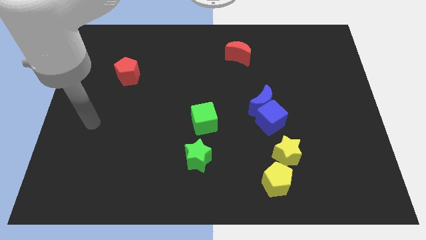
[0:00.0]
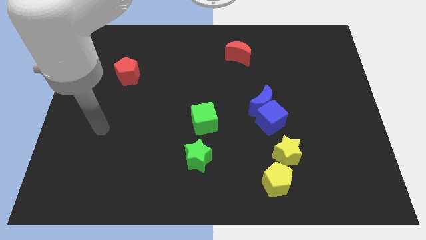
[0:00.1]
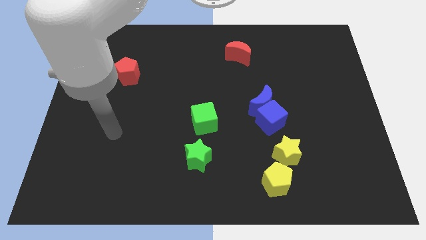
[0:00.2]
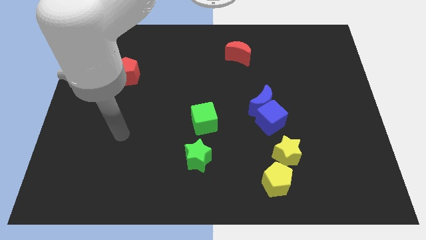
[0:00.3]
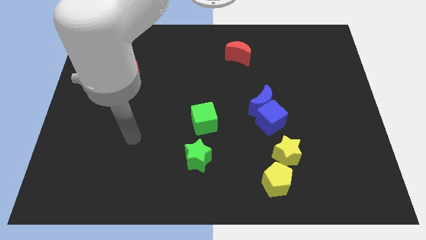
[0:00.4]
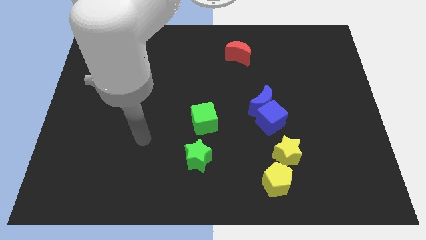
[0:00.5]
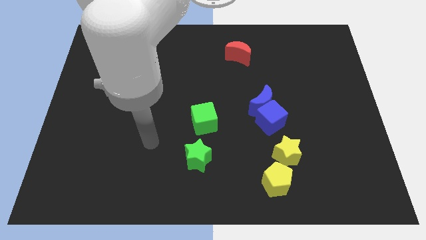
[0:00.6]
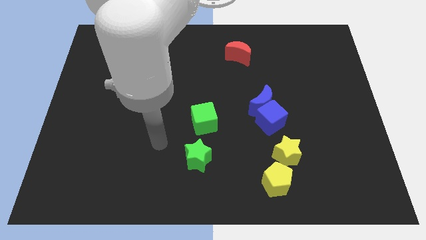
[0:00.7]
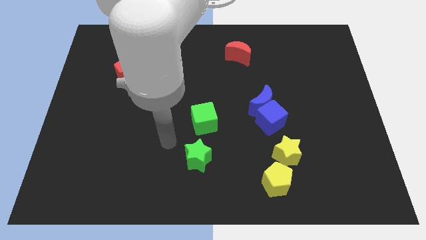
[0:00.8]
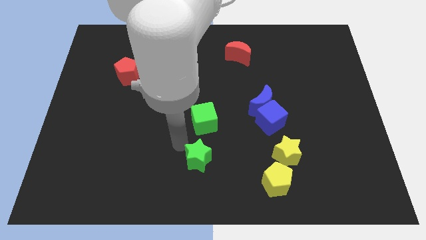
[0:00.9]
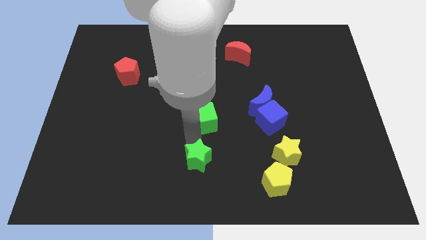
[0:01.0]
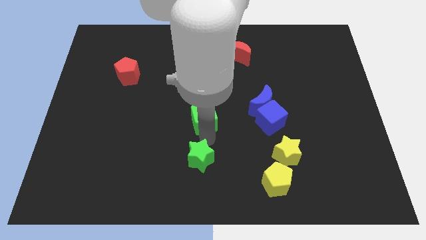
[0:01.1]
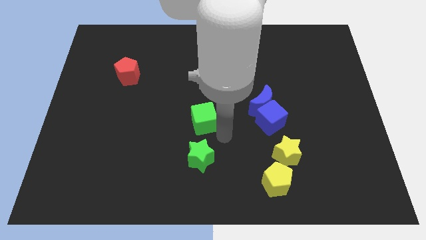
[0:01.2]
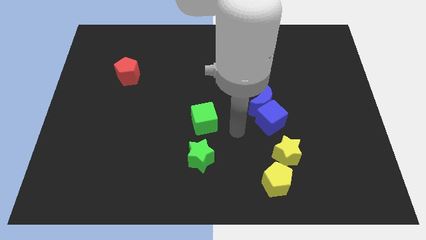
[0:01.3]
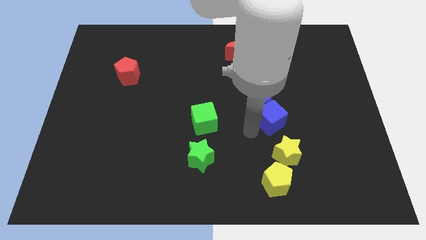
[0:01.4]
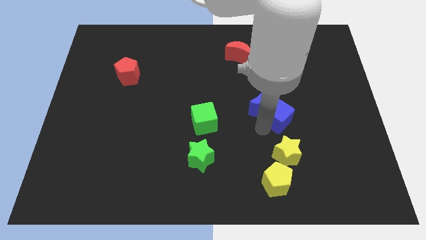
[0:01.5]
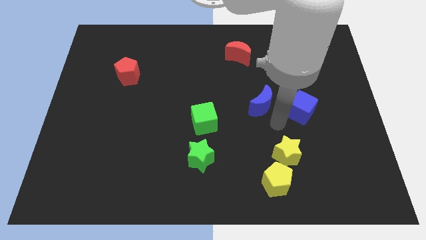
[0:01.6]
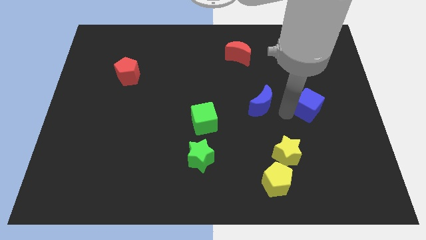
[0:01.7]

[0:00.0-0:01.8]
separate the blue moon from the blue cube

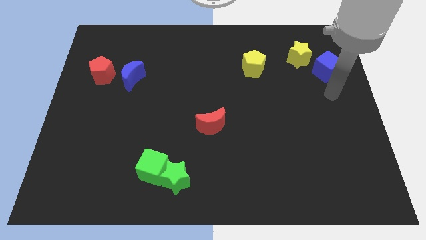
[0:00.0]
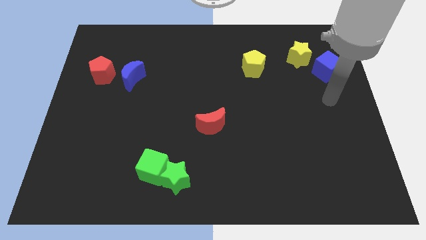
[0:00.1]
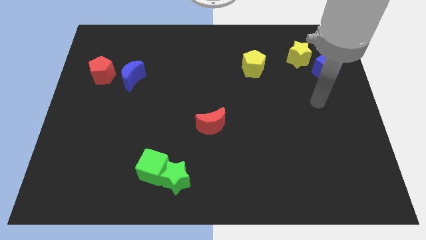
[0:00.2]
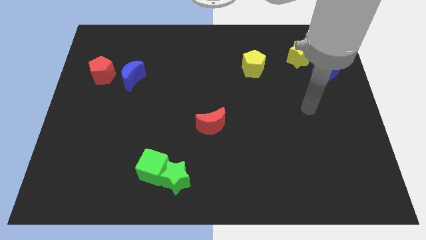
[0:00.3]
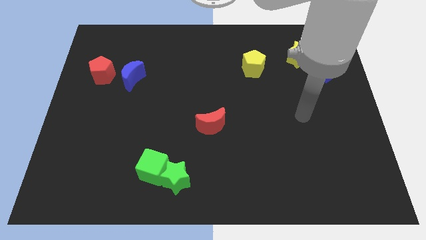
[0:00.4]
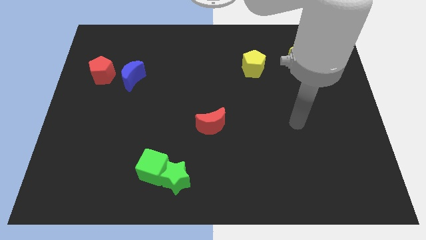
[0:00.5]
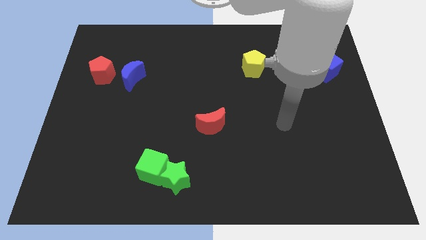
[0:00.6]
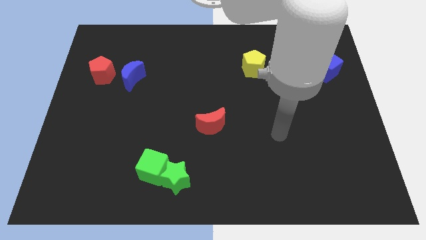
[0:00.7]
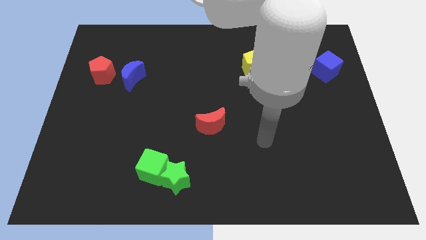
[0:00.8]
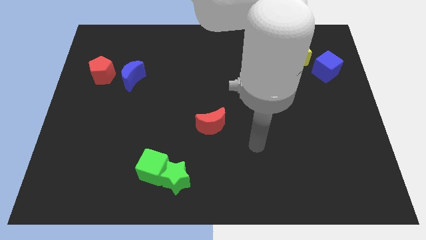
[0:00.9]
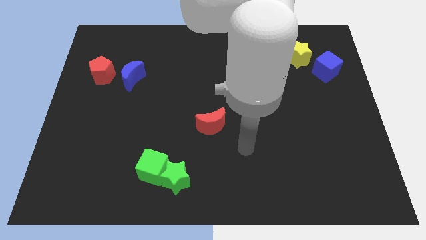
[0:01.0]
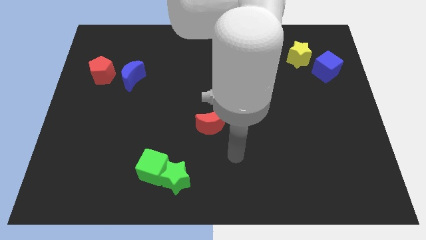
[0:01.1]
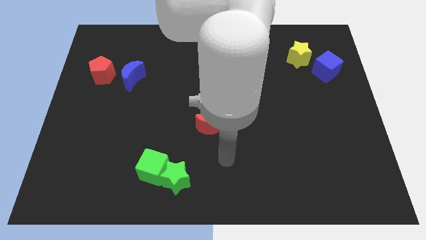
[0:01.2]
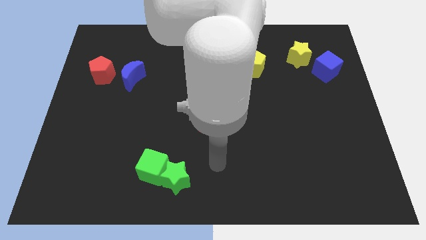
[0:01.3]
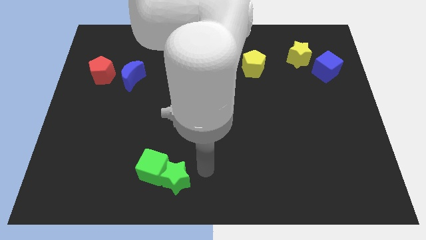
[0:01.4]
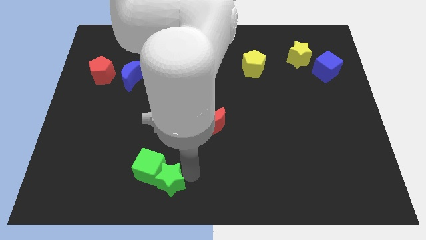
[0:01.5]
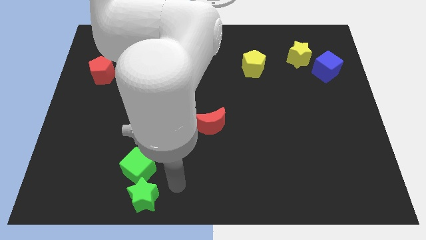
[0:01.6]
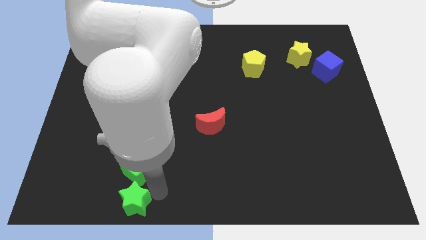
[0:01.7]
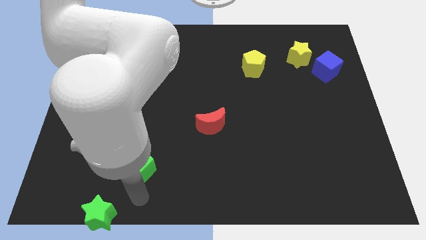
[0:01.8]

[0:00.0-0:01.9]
separate the green cube from the green star

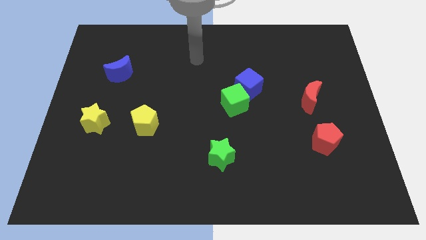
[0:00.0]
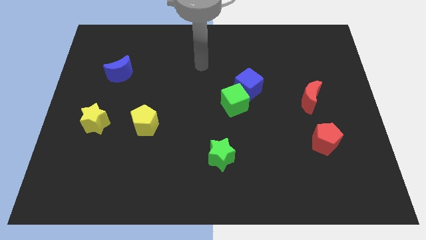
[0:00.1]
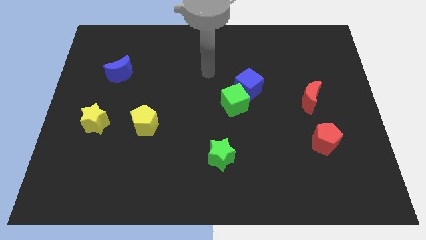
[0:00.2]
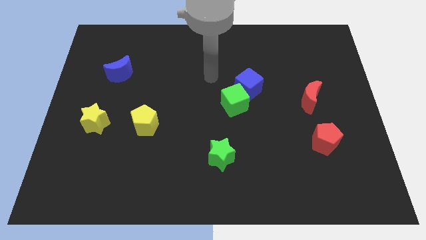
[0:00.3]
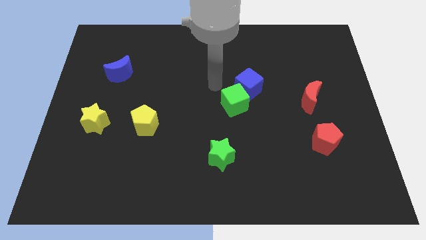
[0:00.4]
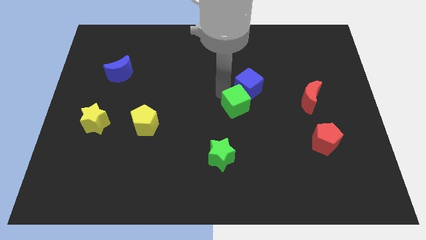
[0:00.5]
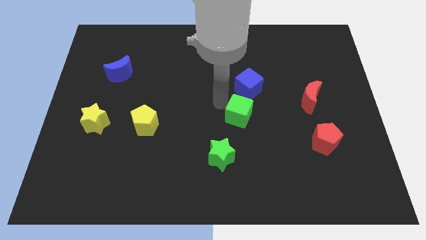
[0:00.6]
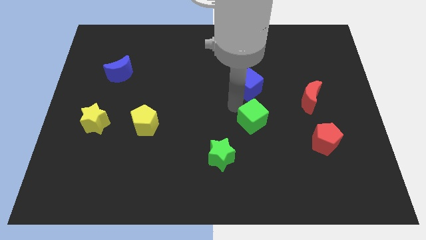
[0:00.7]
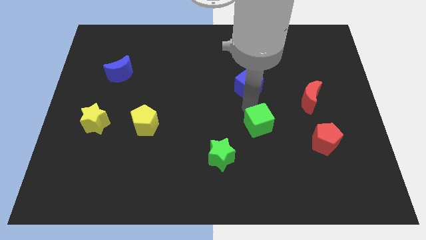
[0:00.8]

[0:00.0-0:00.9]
separate the blue cube from the green cube

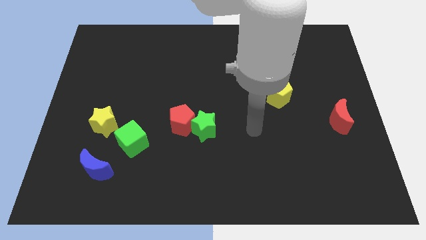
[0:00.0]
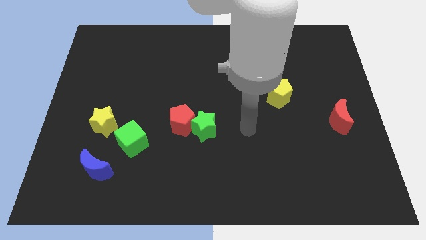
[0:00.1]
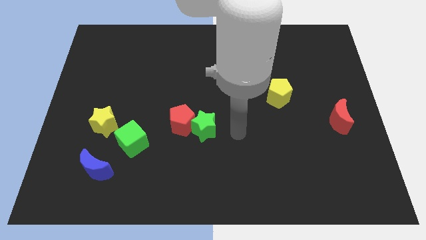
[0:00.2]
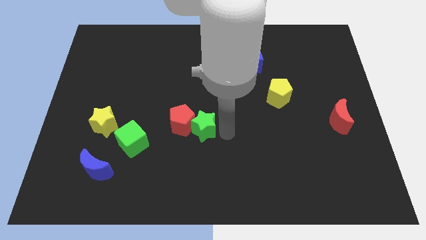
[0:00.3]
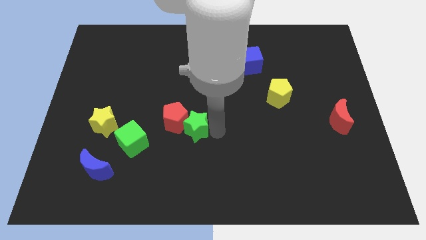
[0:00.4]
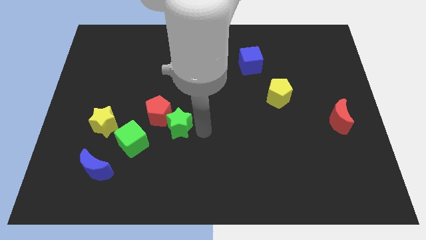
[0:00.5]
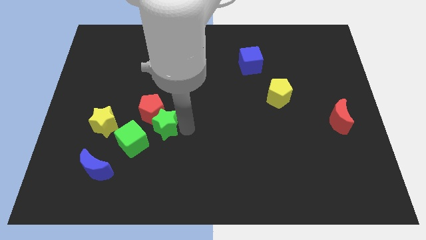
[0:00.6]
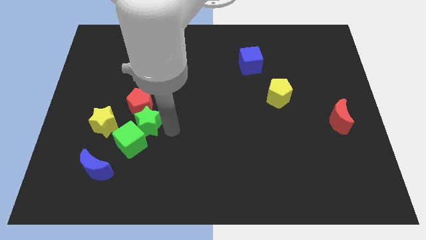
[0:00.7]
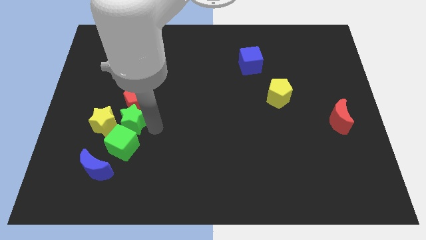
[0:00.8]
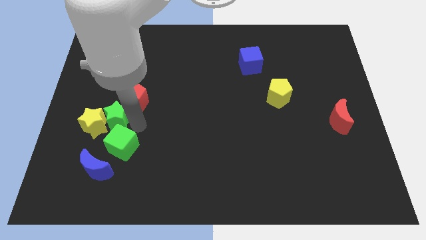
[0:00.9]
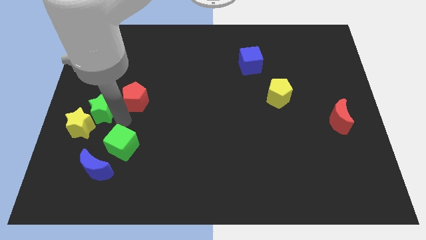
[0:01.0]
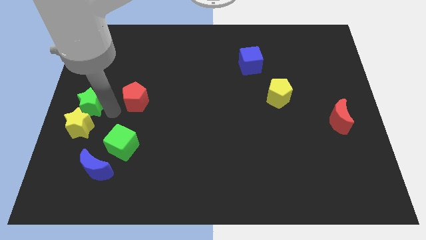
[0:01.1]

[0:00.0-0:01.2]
pull the red pentagon apart from the green star

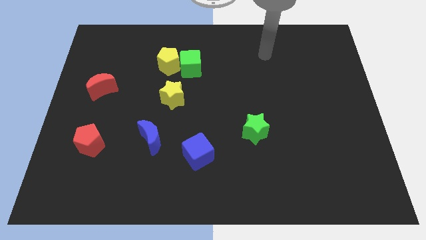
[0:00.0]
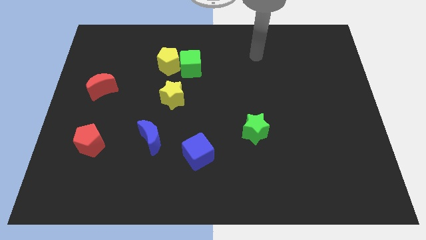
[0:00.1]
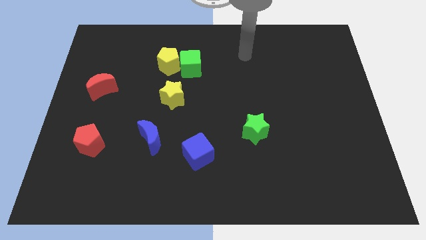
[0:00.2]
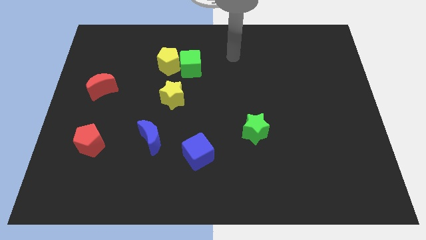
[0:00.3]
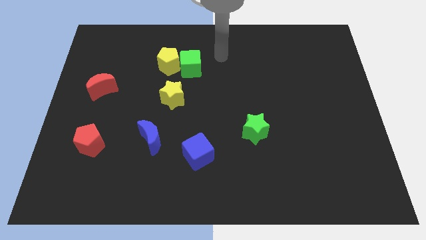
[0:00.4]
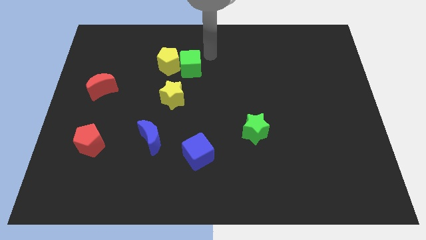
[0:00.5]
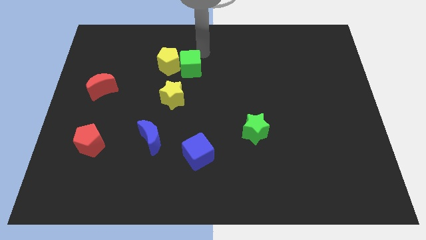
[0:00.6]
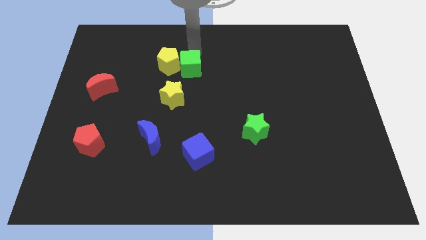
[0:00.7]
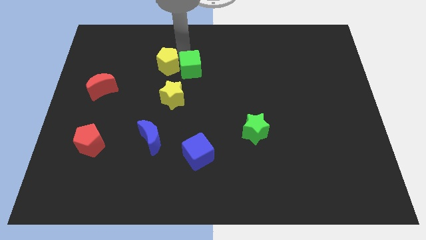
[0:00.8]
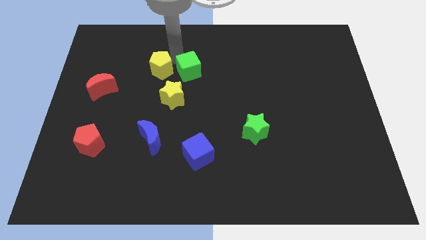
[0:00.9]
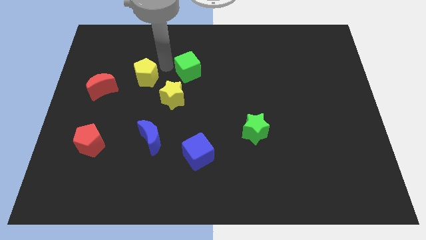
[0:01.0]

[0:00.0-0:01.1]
move the green cube away from the yellow pentagon

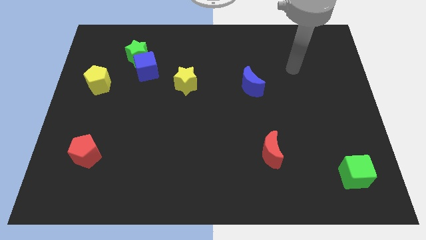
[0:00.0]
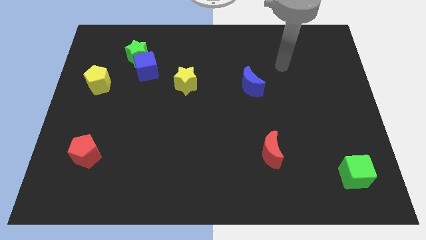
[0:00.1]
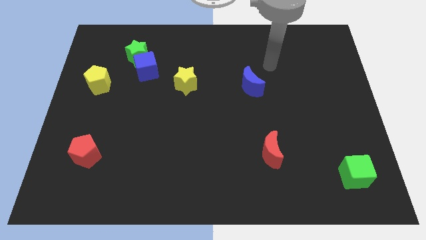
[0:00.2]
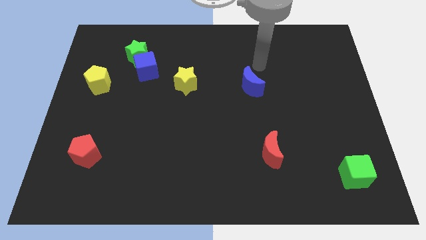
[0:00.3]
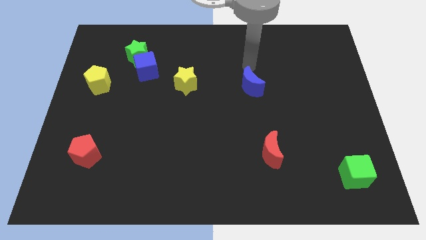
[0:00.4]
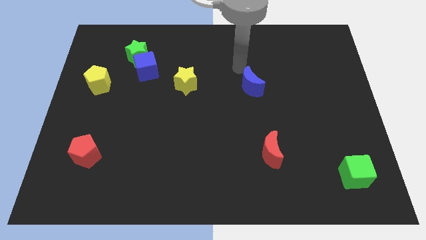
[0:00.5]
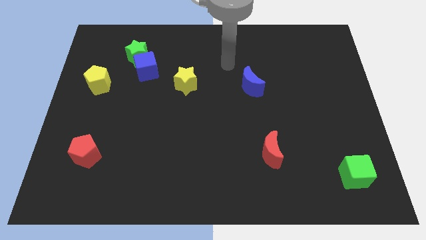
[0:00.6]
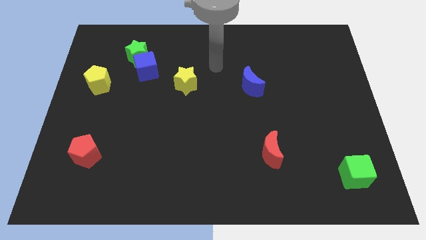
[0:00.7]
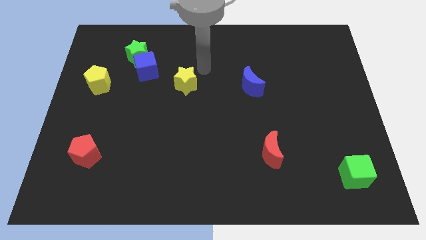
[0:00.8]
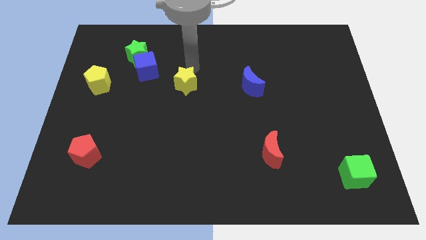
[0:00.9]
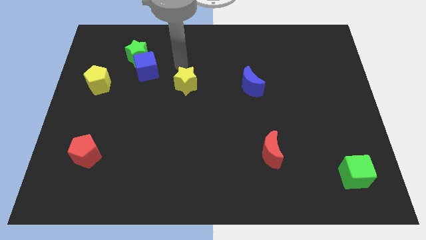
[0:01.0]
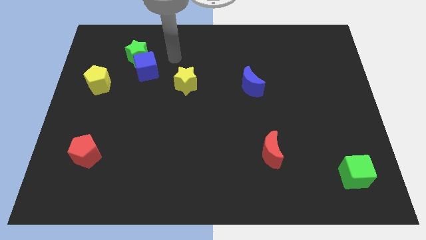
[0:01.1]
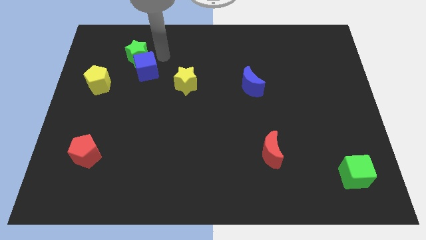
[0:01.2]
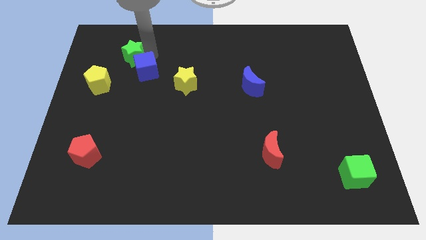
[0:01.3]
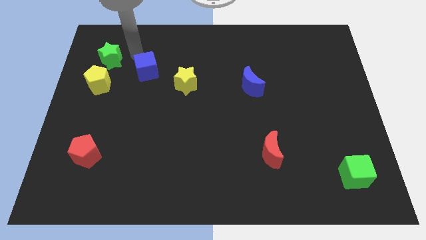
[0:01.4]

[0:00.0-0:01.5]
move the blue cube away from the green star

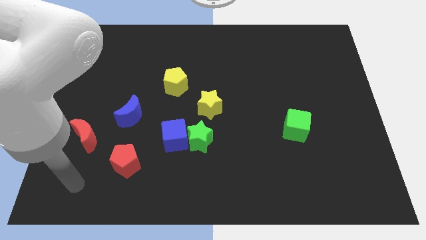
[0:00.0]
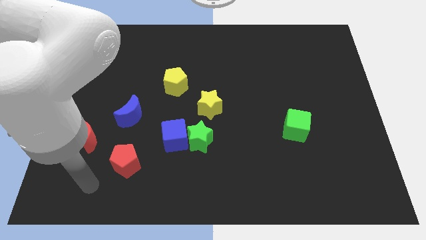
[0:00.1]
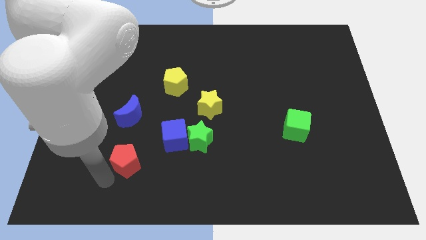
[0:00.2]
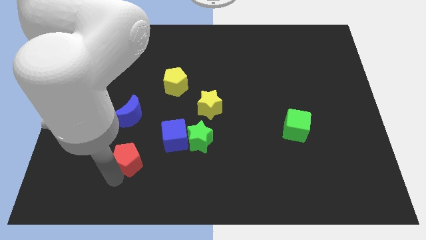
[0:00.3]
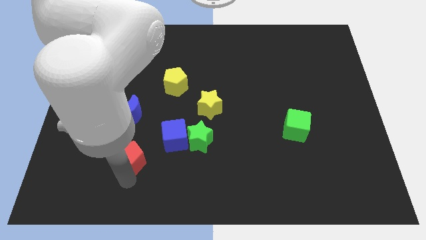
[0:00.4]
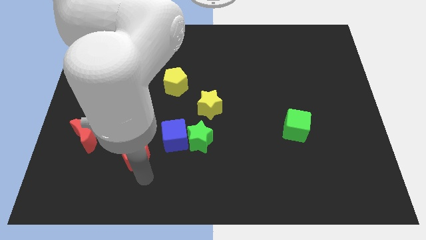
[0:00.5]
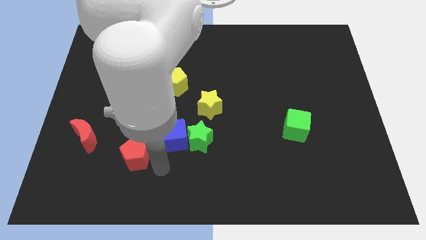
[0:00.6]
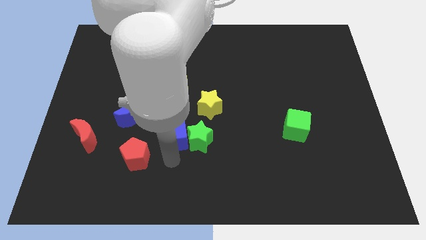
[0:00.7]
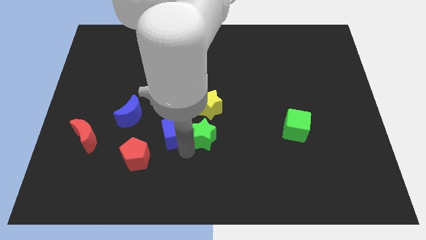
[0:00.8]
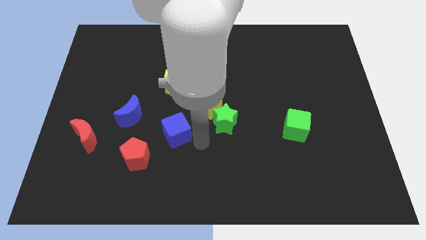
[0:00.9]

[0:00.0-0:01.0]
separate the blue cube from the green star
